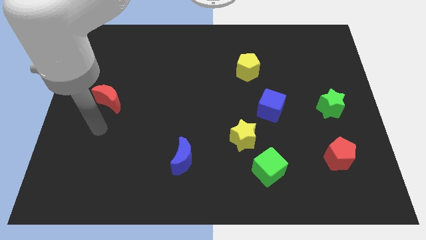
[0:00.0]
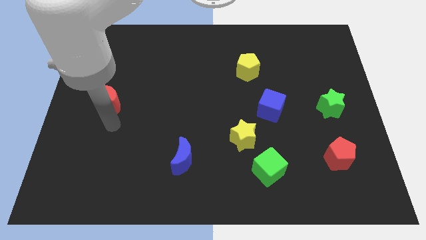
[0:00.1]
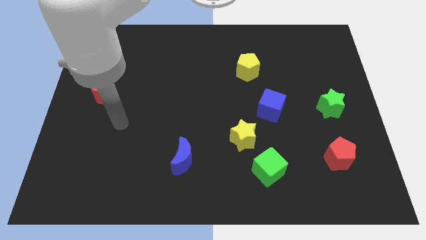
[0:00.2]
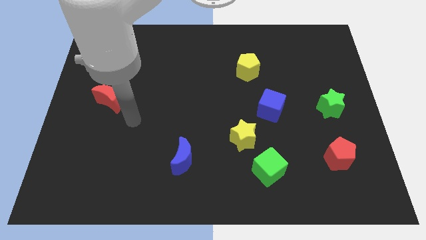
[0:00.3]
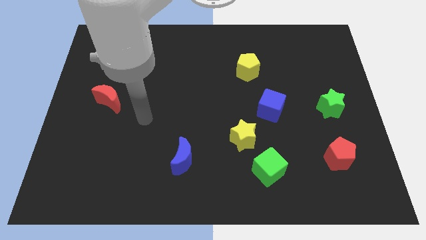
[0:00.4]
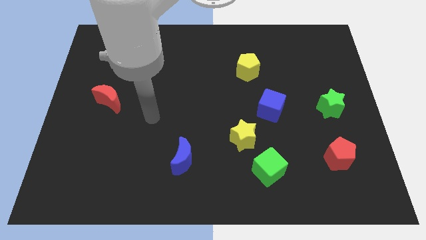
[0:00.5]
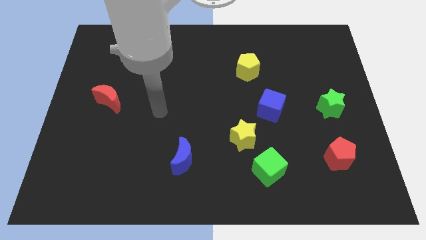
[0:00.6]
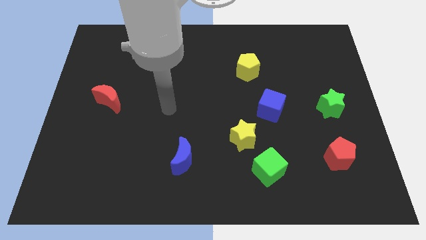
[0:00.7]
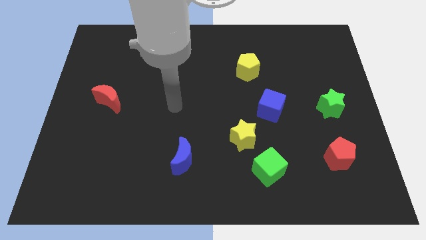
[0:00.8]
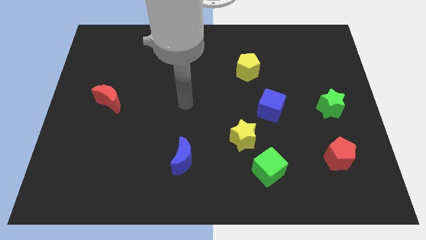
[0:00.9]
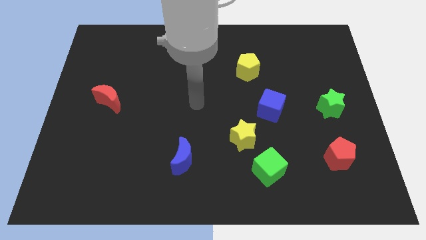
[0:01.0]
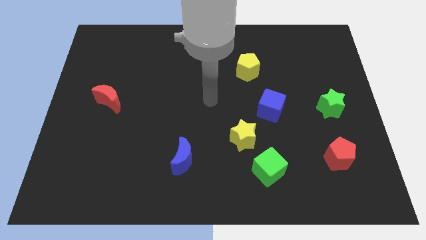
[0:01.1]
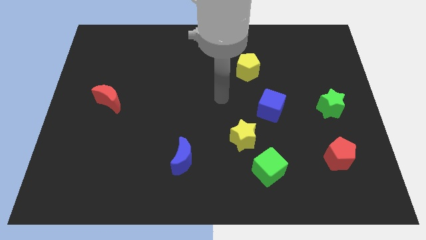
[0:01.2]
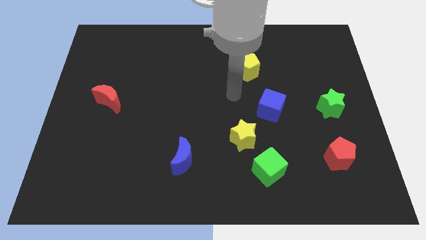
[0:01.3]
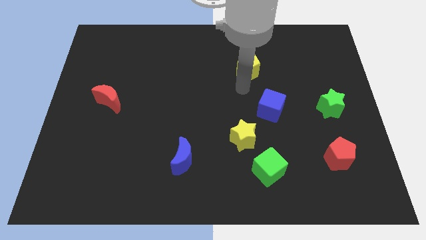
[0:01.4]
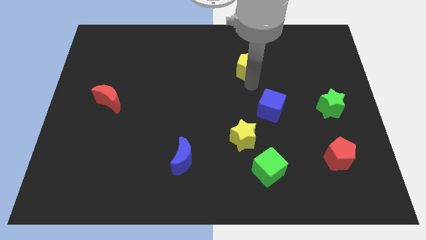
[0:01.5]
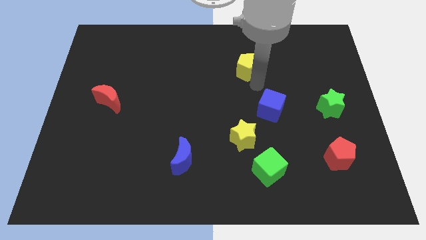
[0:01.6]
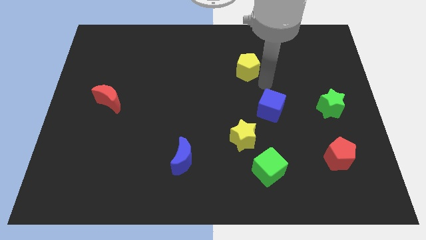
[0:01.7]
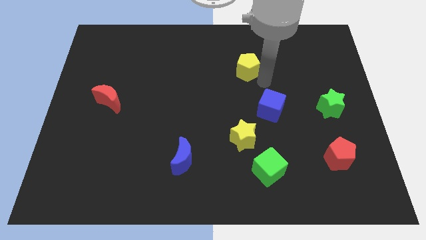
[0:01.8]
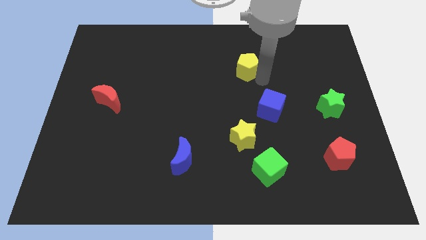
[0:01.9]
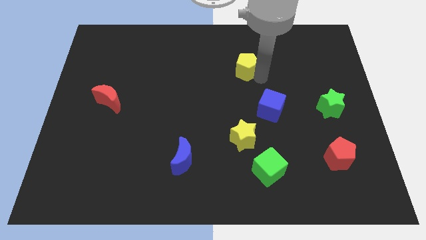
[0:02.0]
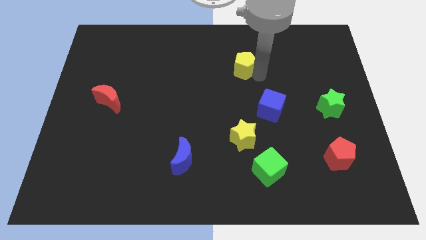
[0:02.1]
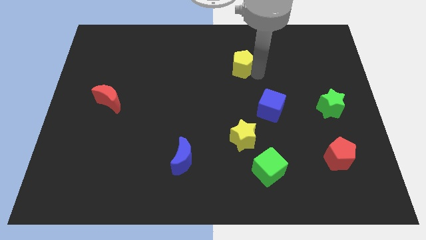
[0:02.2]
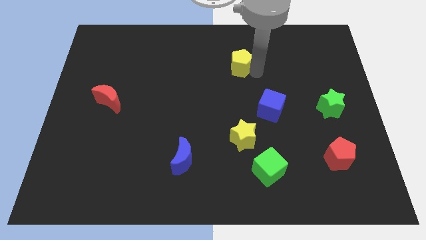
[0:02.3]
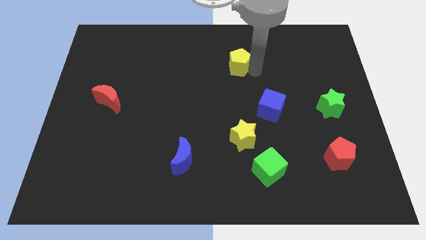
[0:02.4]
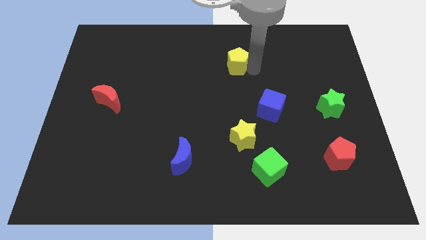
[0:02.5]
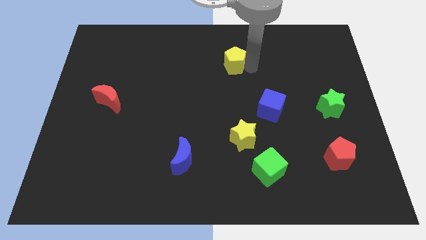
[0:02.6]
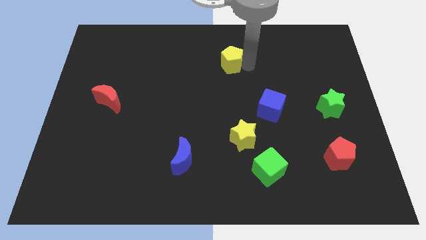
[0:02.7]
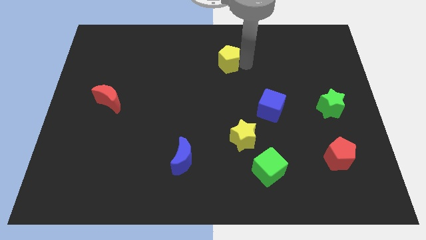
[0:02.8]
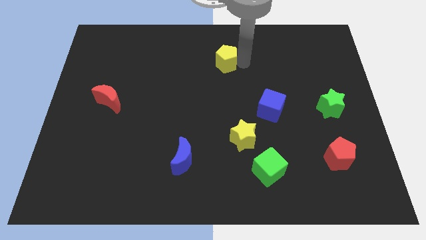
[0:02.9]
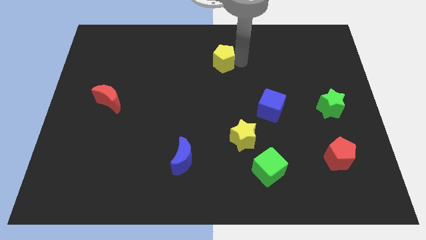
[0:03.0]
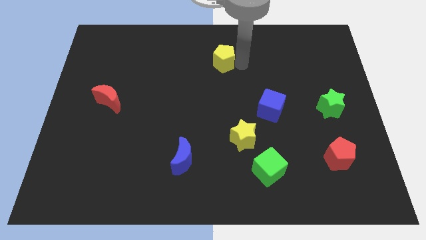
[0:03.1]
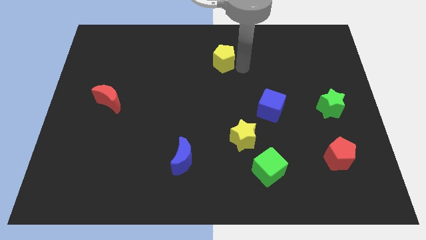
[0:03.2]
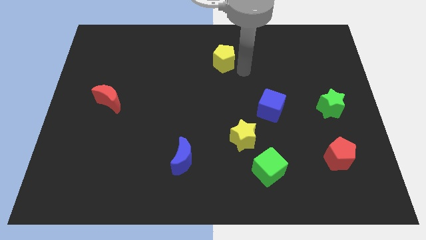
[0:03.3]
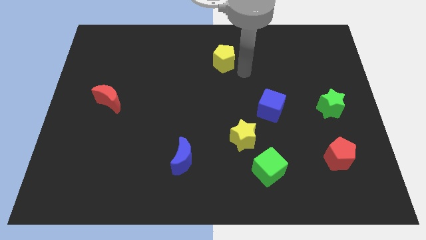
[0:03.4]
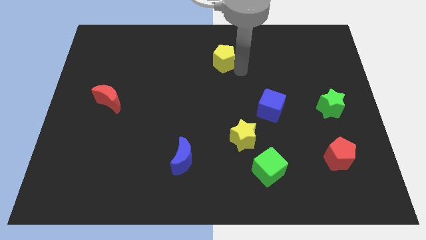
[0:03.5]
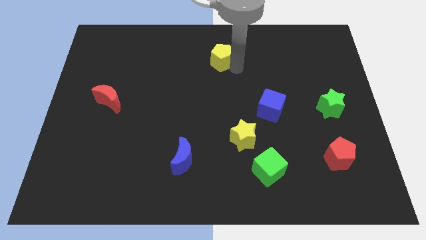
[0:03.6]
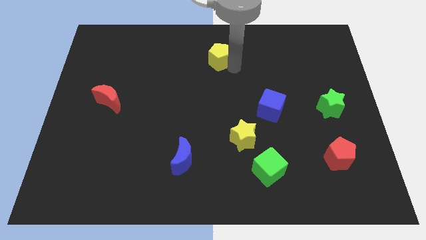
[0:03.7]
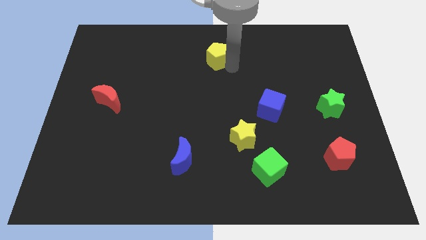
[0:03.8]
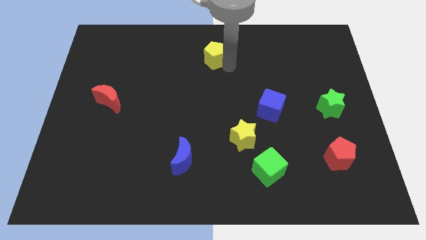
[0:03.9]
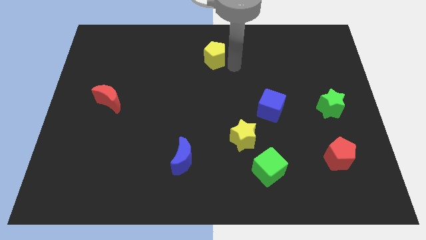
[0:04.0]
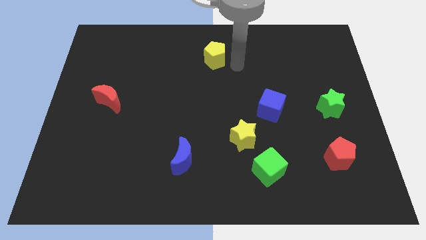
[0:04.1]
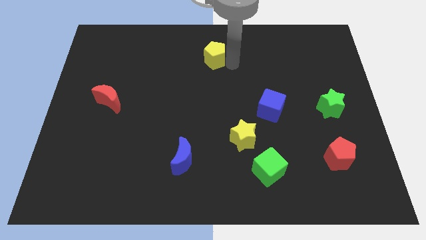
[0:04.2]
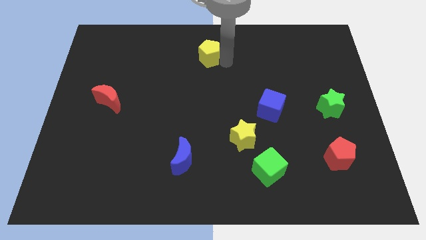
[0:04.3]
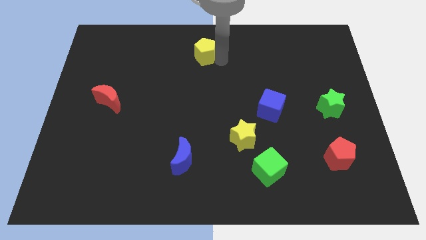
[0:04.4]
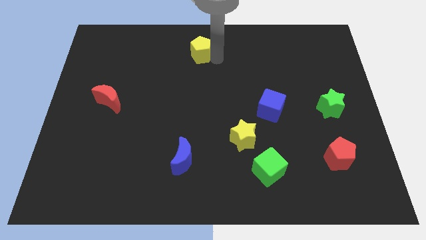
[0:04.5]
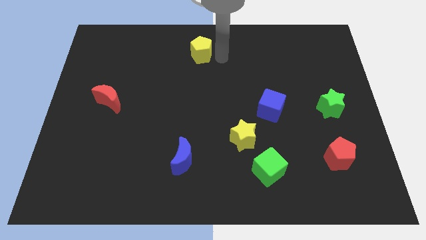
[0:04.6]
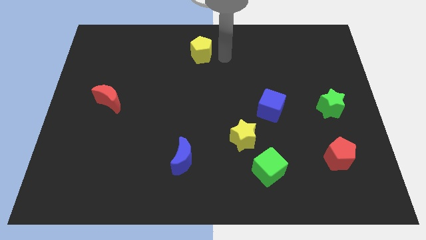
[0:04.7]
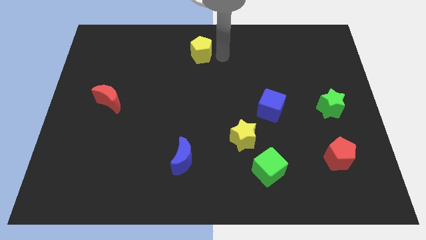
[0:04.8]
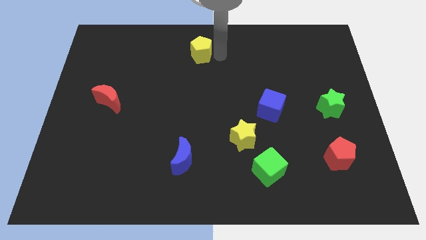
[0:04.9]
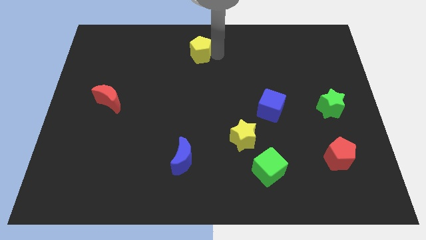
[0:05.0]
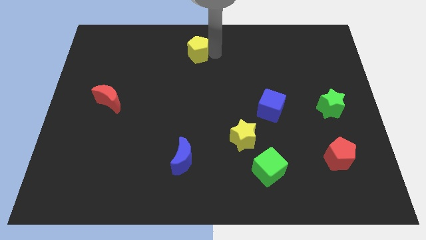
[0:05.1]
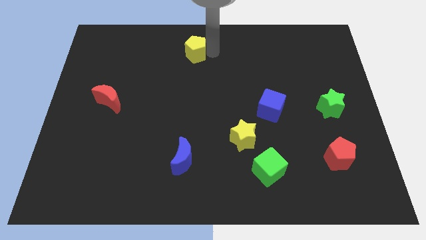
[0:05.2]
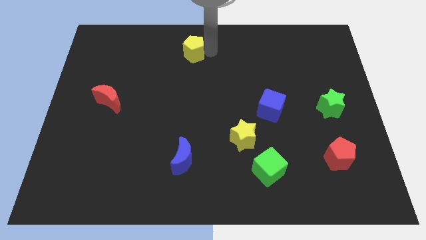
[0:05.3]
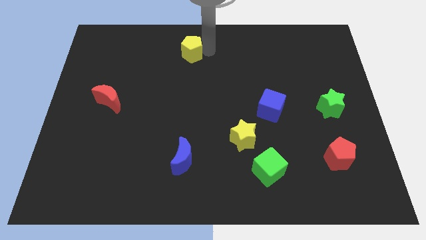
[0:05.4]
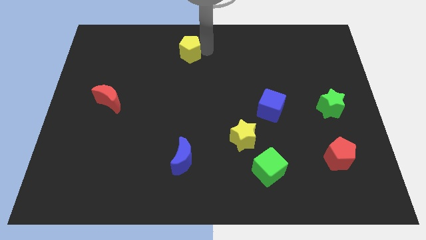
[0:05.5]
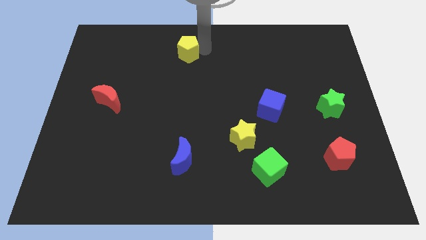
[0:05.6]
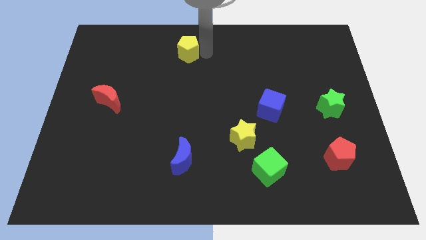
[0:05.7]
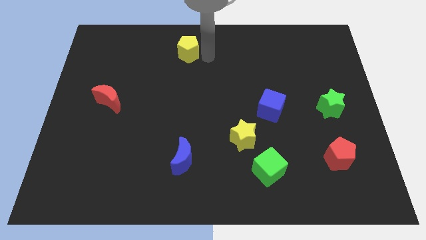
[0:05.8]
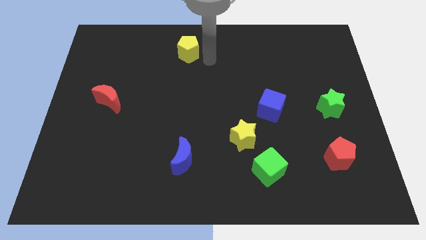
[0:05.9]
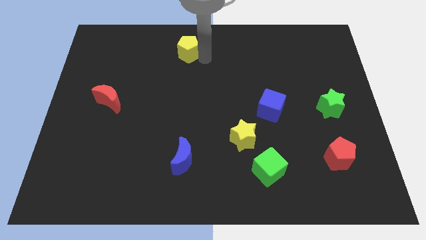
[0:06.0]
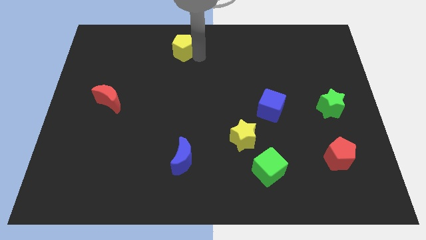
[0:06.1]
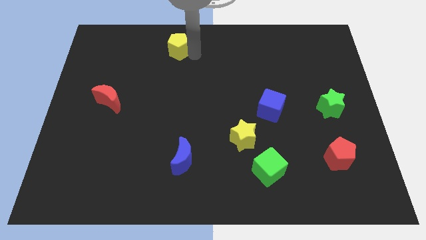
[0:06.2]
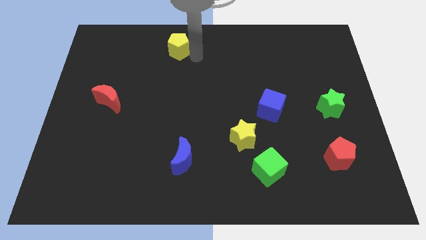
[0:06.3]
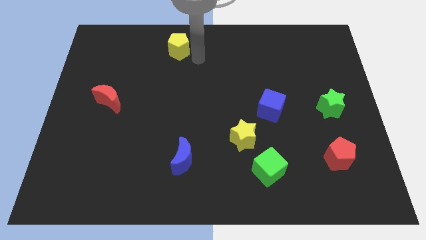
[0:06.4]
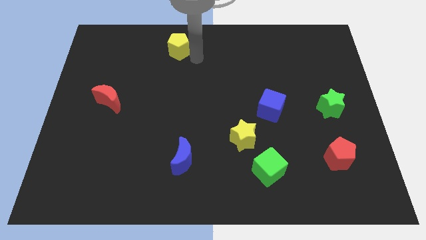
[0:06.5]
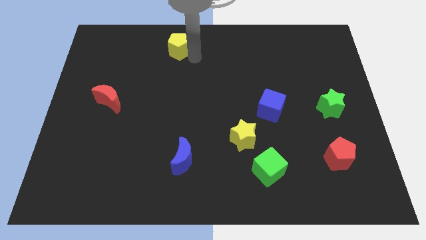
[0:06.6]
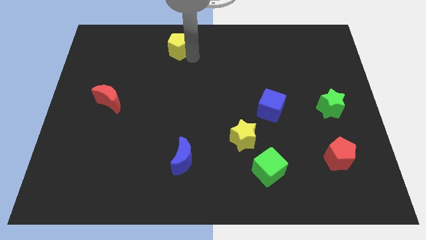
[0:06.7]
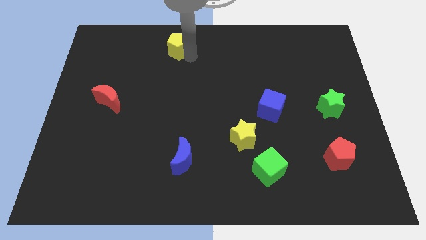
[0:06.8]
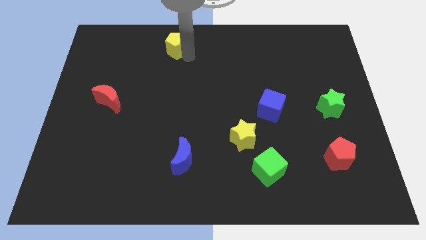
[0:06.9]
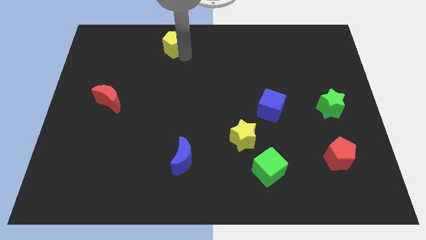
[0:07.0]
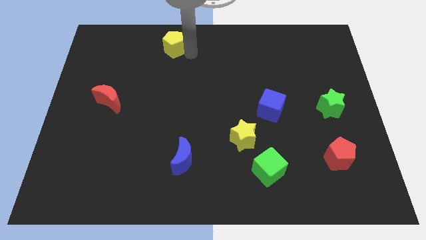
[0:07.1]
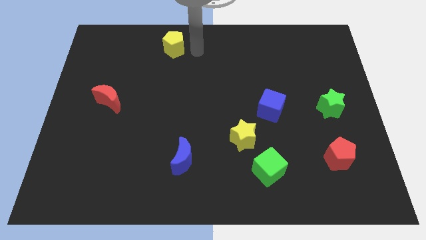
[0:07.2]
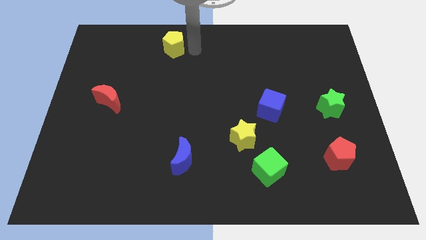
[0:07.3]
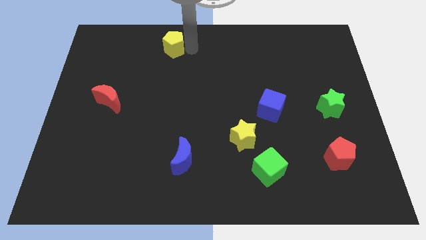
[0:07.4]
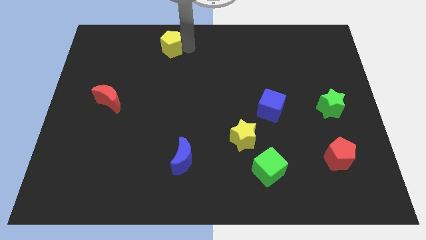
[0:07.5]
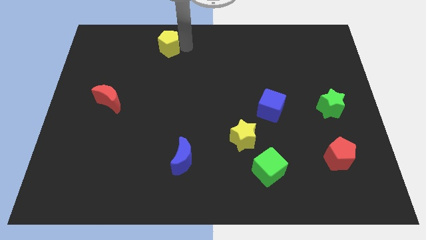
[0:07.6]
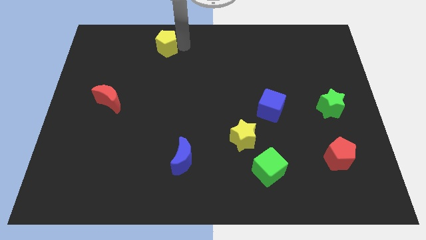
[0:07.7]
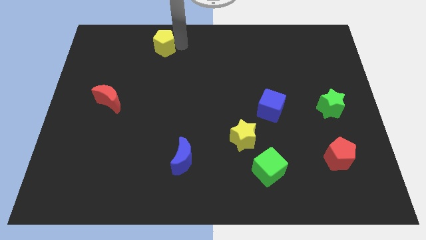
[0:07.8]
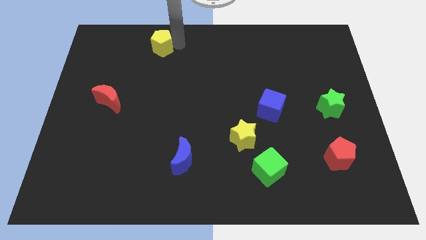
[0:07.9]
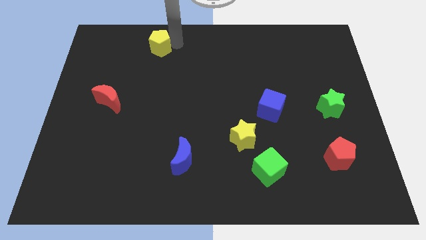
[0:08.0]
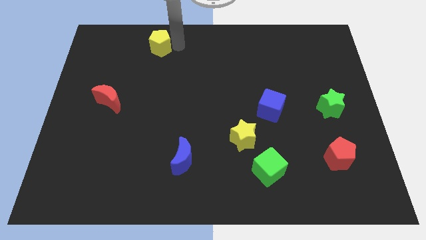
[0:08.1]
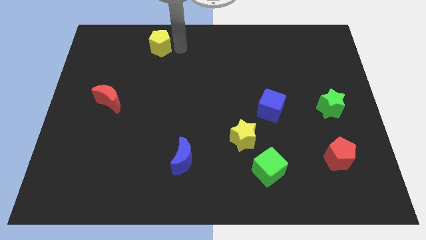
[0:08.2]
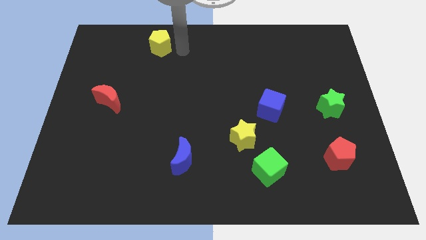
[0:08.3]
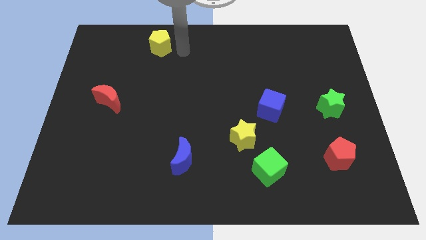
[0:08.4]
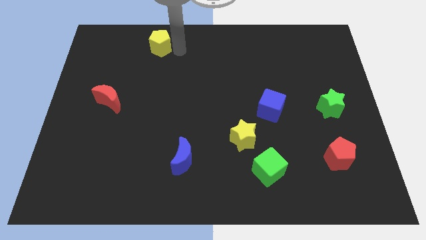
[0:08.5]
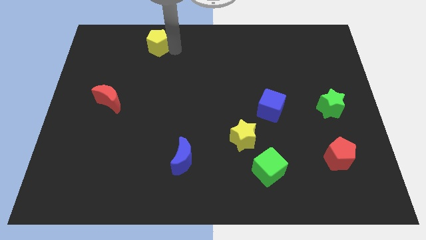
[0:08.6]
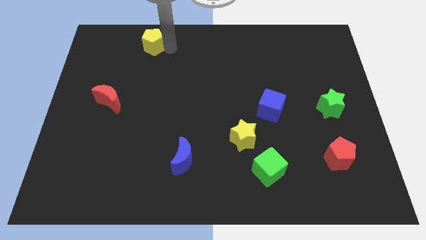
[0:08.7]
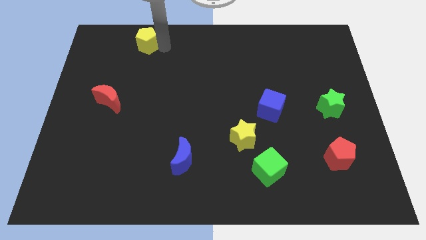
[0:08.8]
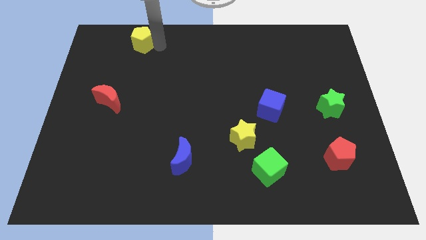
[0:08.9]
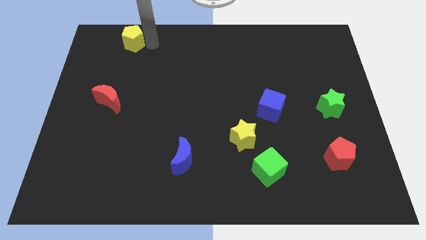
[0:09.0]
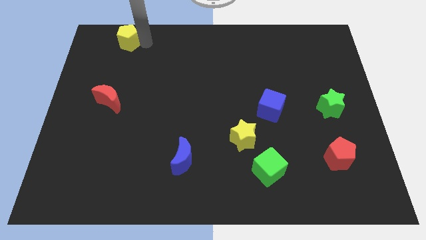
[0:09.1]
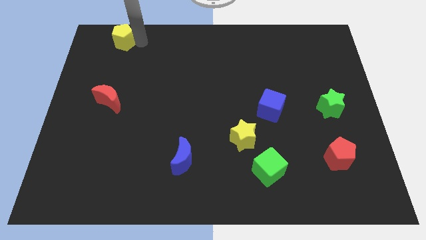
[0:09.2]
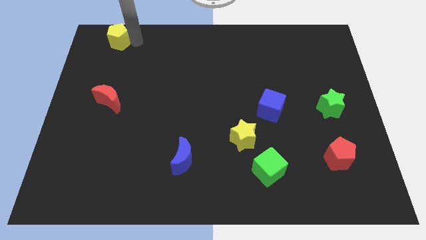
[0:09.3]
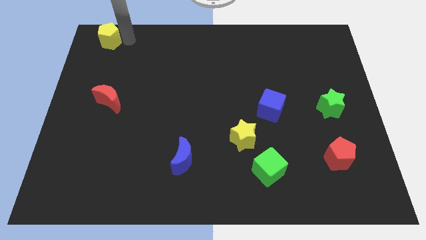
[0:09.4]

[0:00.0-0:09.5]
push the yellow pentagon to the top left
